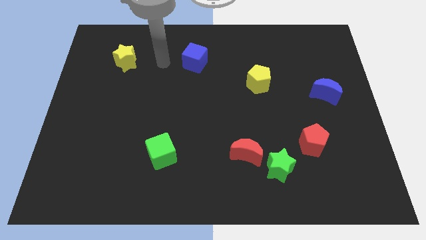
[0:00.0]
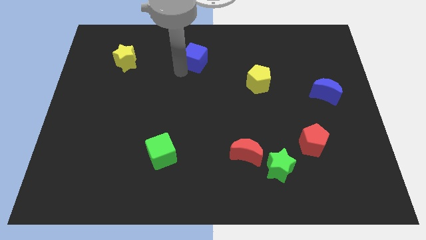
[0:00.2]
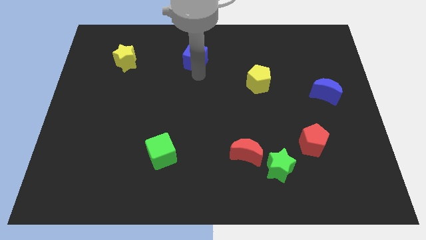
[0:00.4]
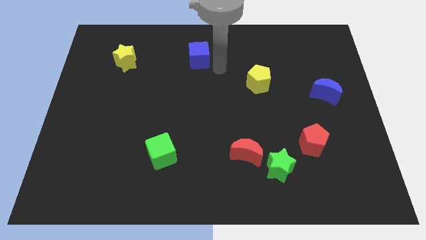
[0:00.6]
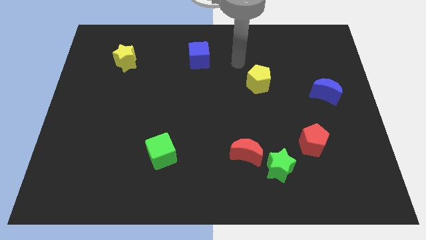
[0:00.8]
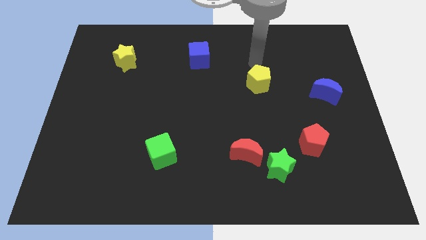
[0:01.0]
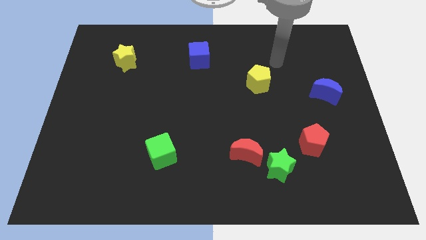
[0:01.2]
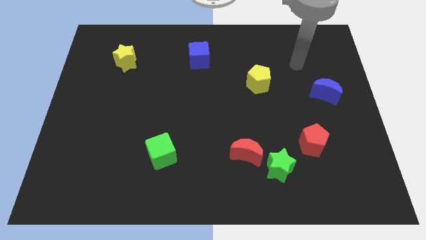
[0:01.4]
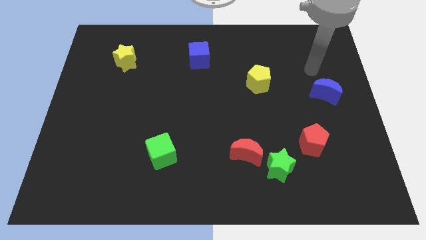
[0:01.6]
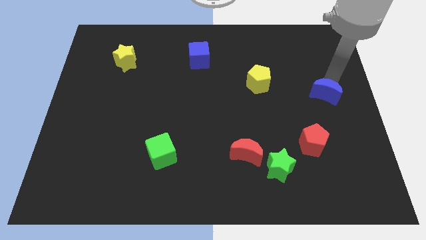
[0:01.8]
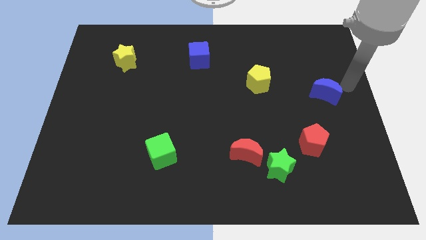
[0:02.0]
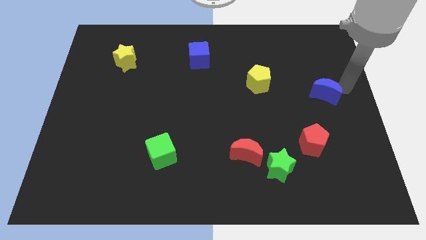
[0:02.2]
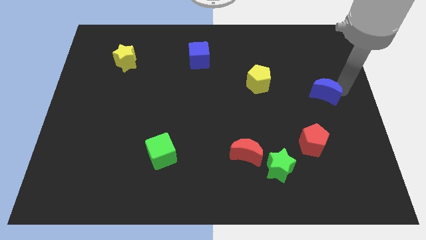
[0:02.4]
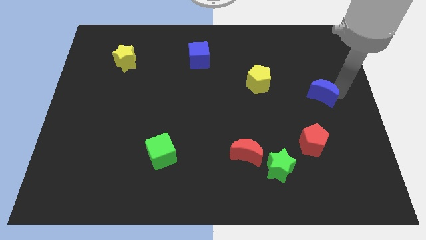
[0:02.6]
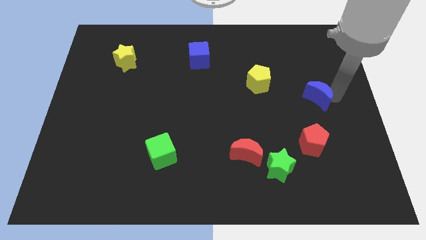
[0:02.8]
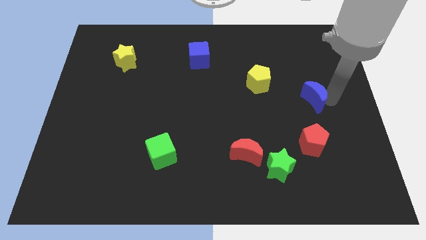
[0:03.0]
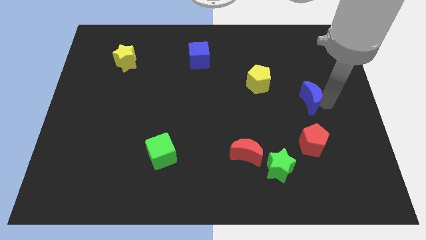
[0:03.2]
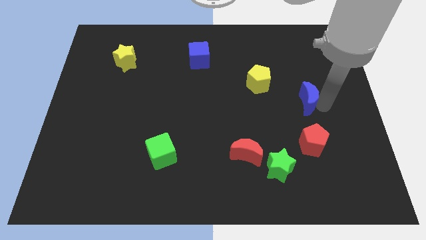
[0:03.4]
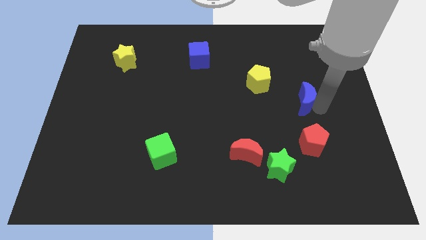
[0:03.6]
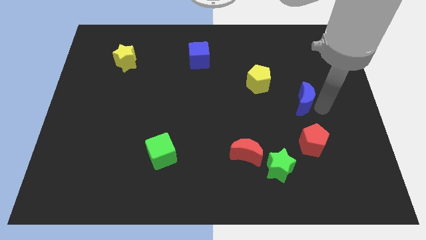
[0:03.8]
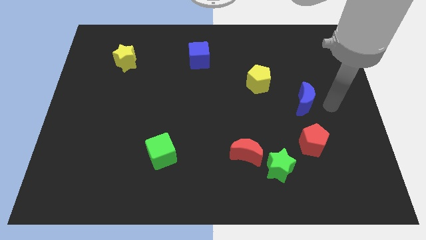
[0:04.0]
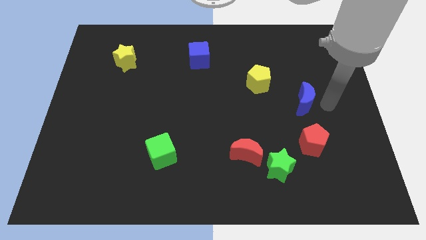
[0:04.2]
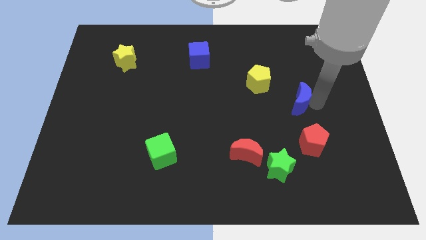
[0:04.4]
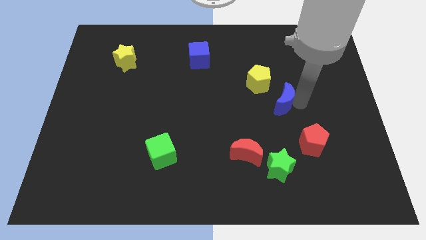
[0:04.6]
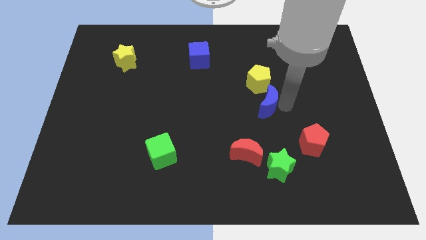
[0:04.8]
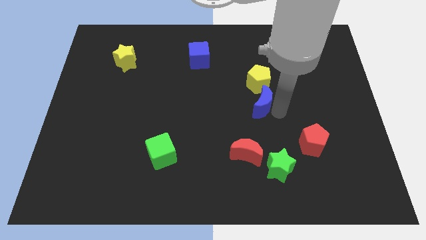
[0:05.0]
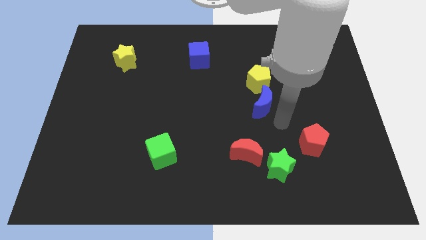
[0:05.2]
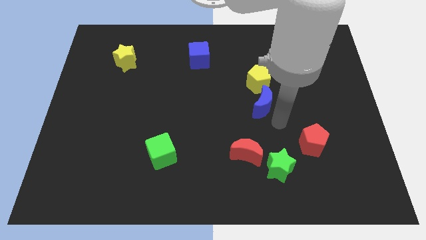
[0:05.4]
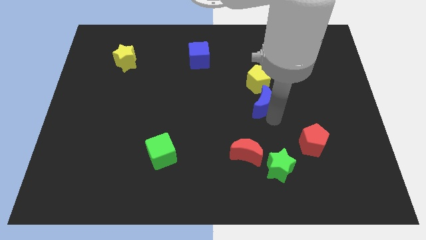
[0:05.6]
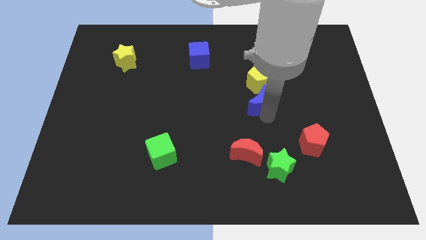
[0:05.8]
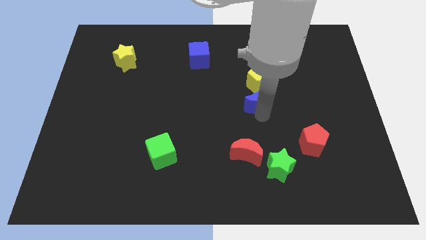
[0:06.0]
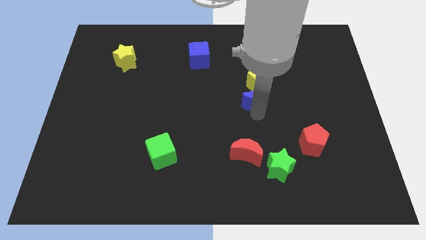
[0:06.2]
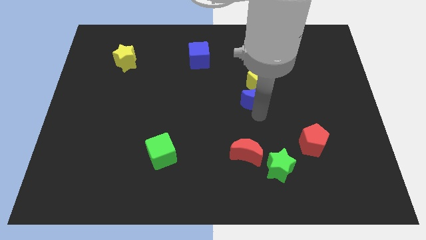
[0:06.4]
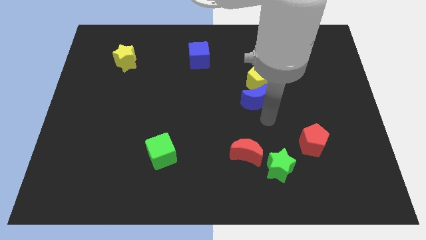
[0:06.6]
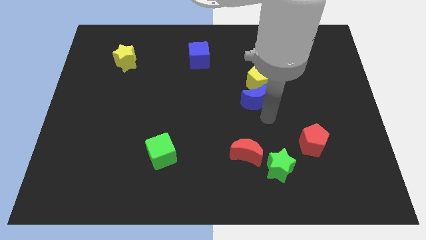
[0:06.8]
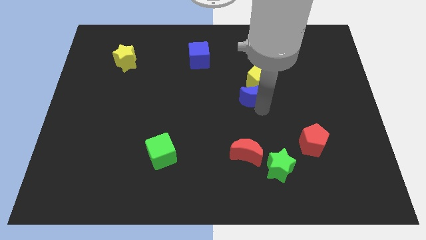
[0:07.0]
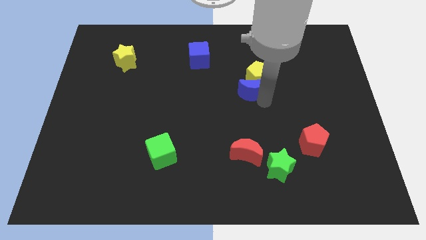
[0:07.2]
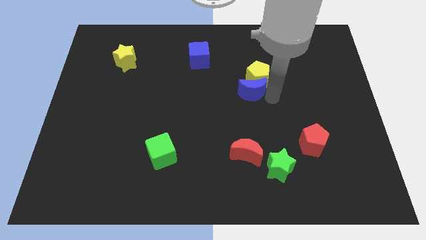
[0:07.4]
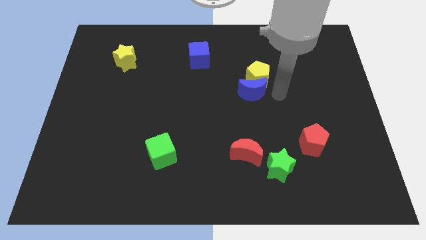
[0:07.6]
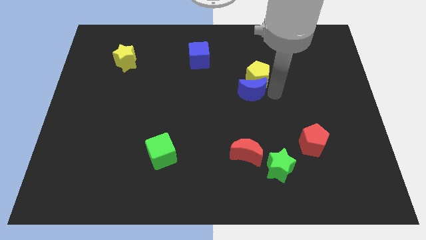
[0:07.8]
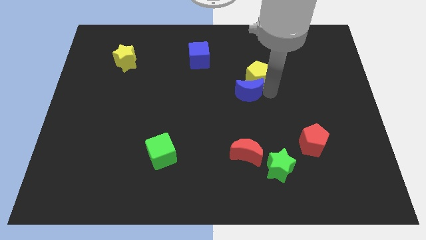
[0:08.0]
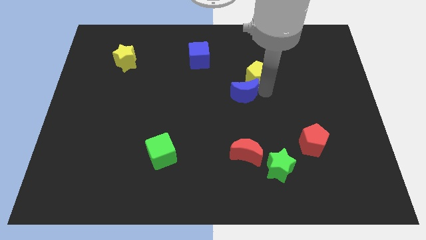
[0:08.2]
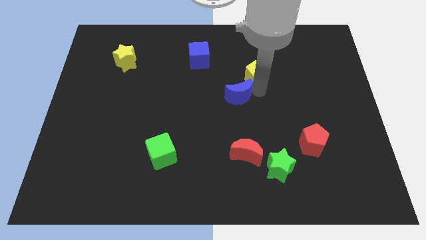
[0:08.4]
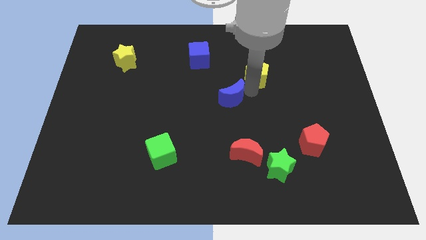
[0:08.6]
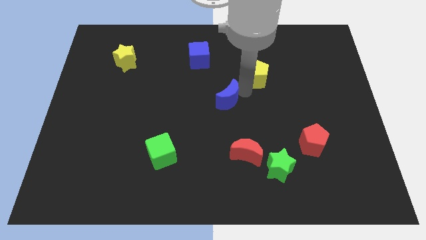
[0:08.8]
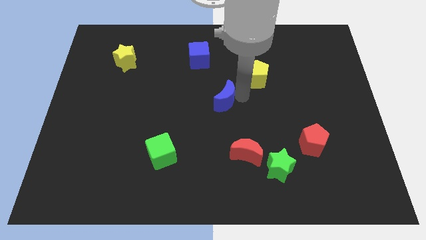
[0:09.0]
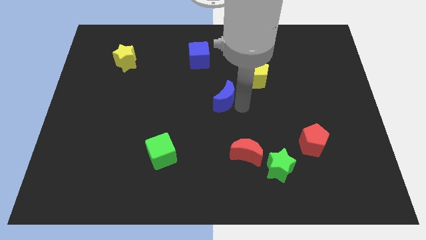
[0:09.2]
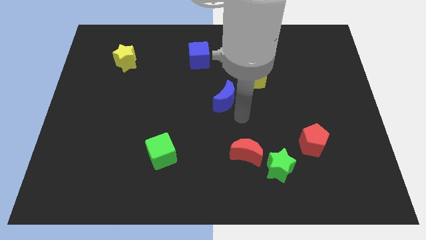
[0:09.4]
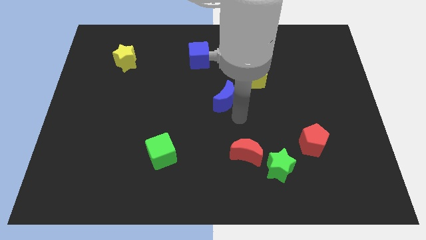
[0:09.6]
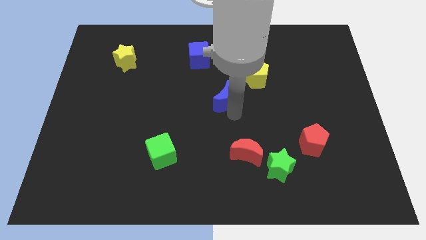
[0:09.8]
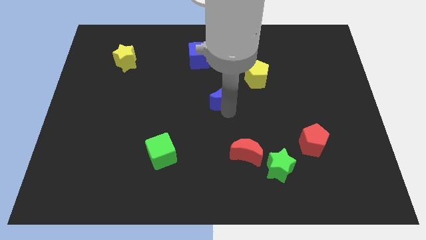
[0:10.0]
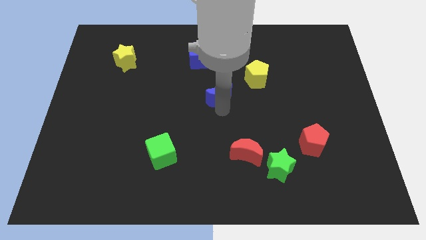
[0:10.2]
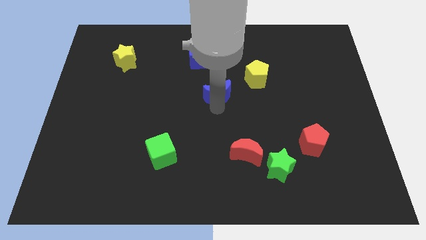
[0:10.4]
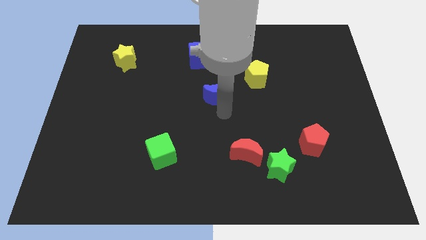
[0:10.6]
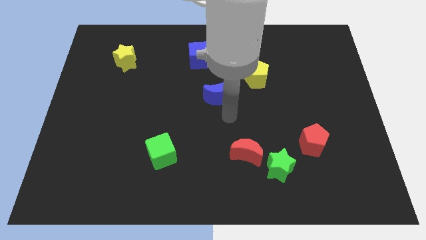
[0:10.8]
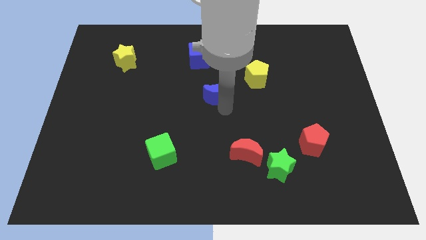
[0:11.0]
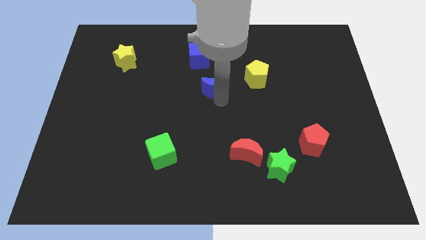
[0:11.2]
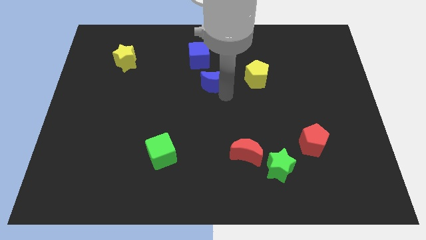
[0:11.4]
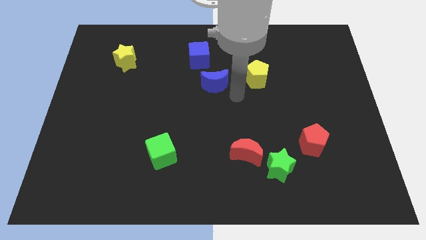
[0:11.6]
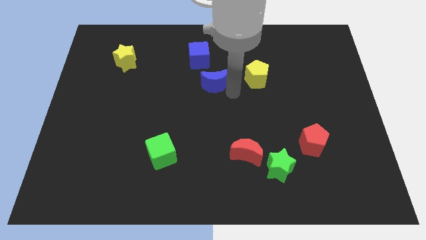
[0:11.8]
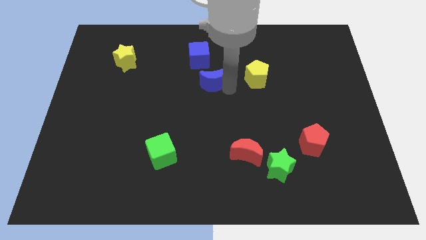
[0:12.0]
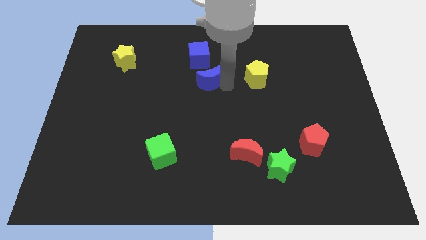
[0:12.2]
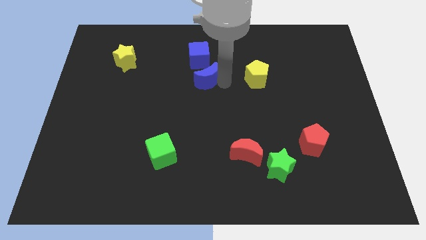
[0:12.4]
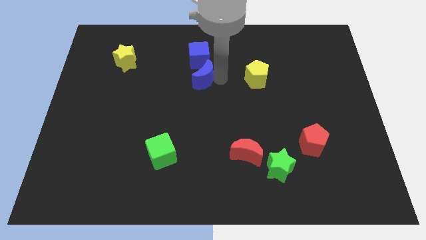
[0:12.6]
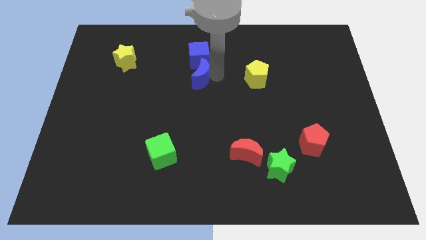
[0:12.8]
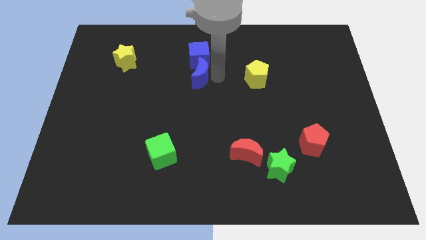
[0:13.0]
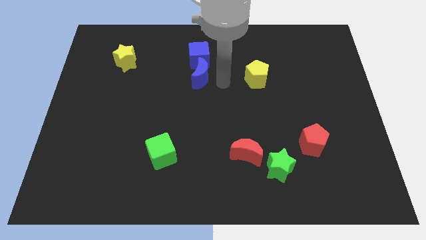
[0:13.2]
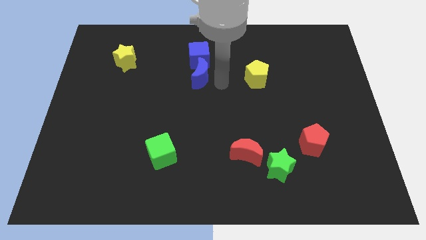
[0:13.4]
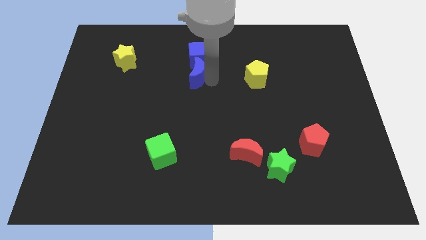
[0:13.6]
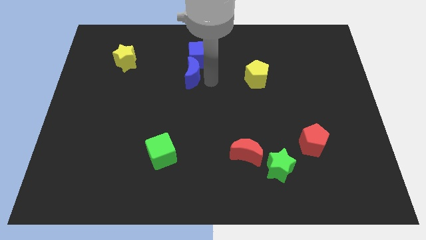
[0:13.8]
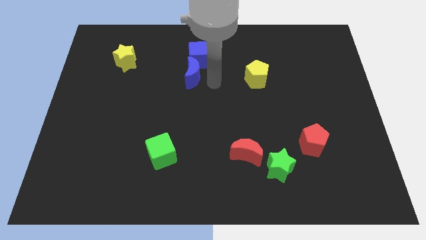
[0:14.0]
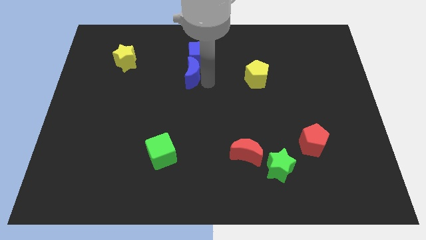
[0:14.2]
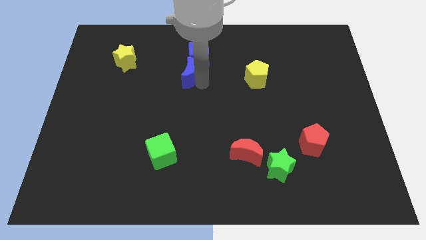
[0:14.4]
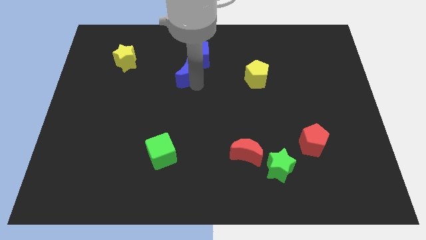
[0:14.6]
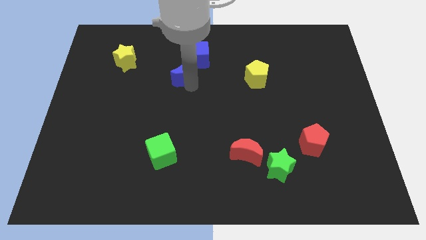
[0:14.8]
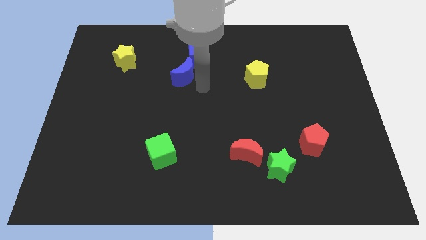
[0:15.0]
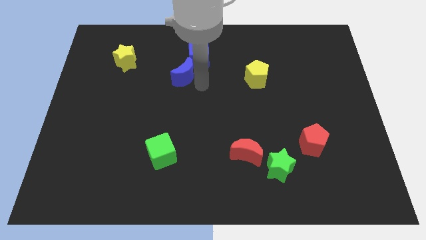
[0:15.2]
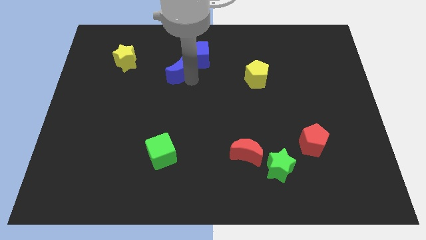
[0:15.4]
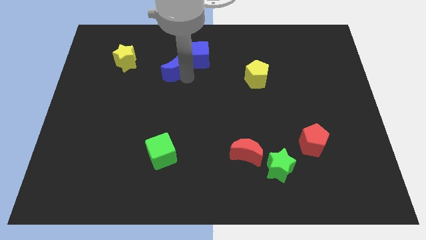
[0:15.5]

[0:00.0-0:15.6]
slide the blue moon to the left side of the blue cube

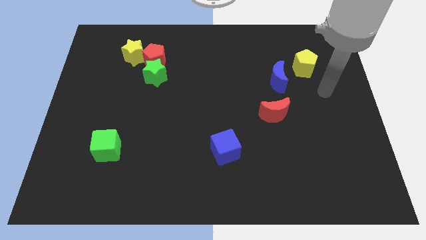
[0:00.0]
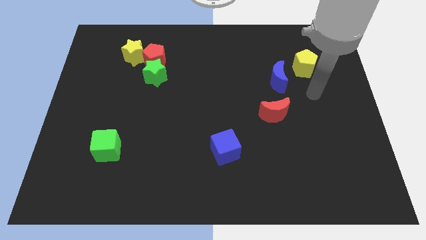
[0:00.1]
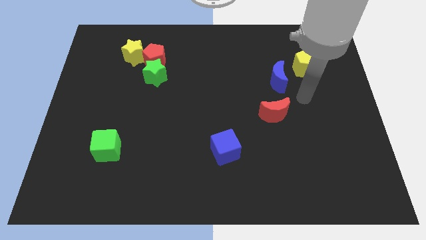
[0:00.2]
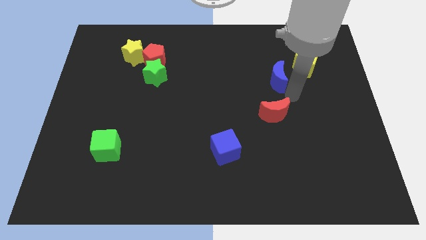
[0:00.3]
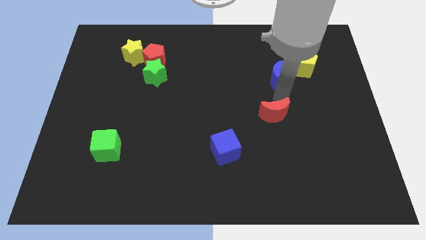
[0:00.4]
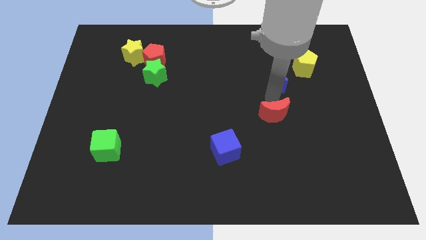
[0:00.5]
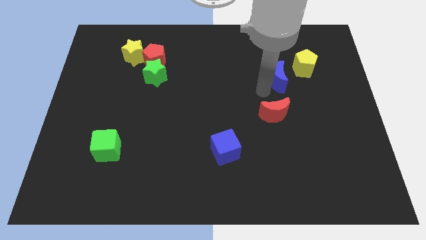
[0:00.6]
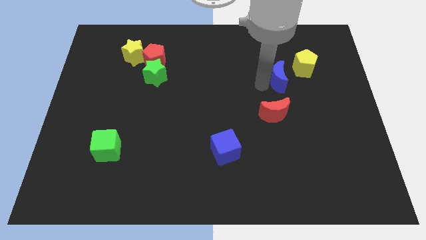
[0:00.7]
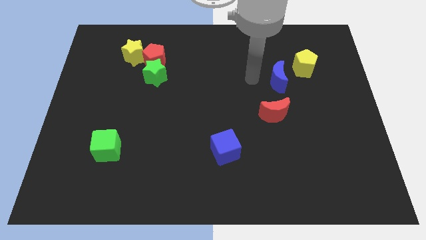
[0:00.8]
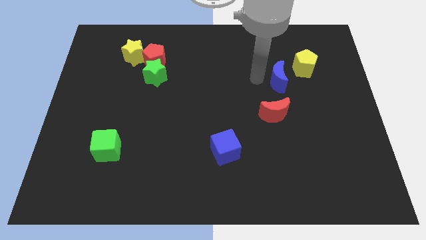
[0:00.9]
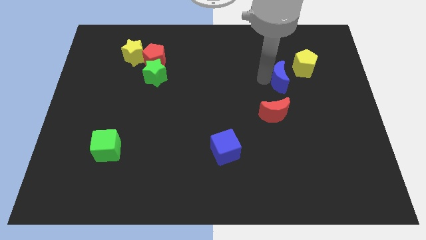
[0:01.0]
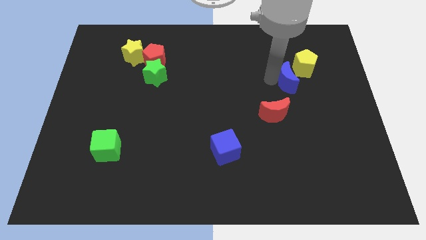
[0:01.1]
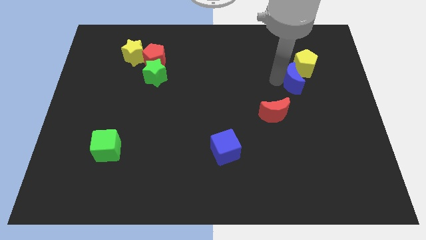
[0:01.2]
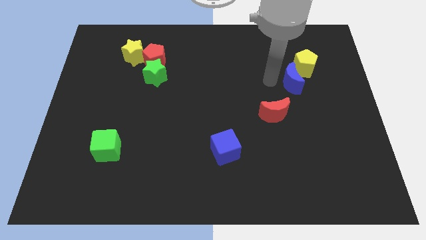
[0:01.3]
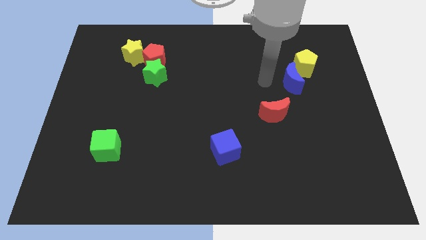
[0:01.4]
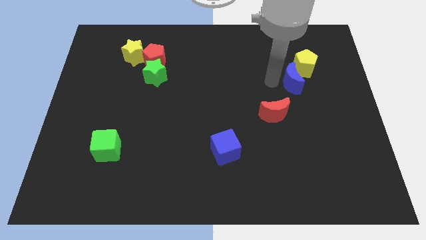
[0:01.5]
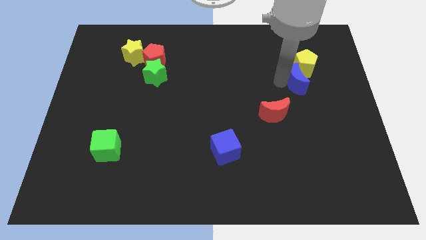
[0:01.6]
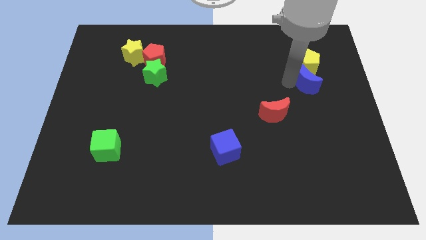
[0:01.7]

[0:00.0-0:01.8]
put the blue moon to the bottom right of the yellow pentagon
